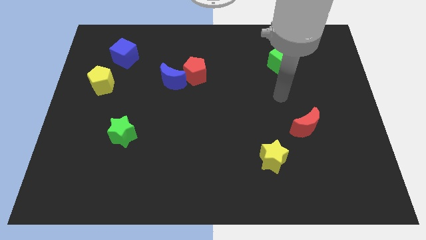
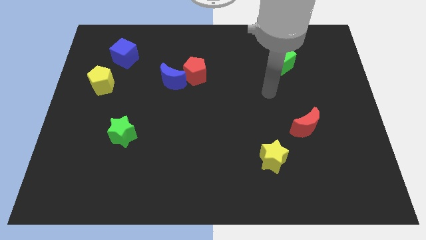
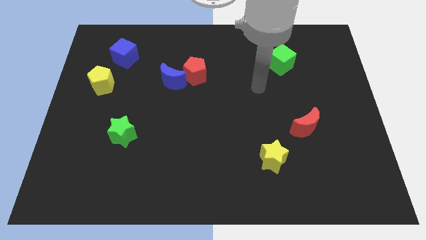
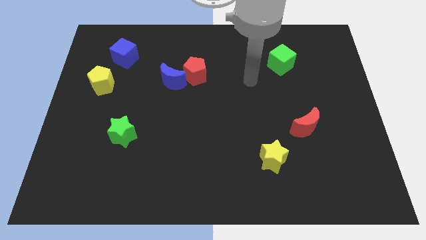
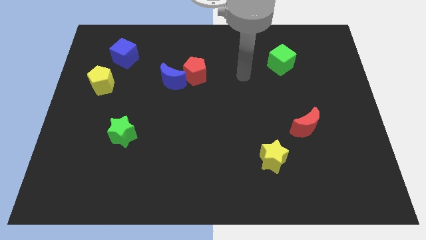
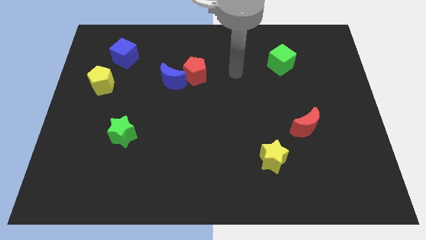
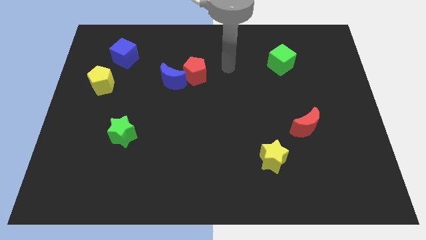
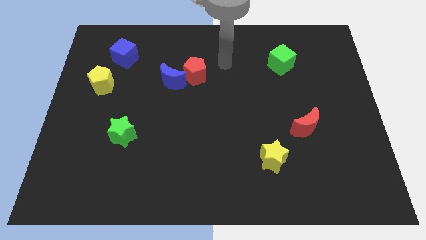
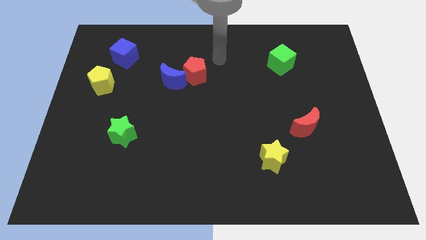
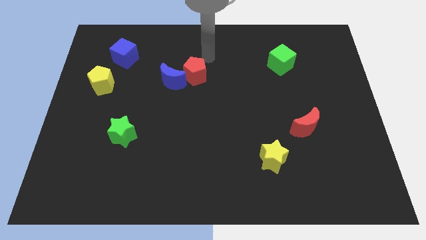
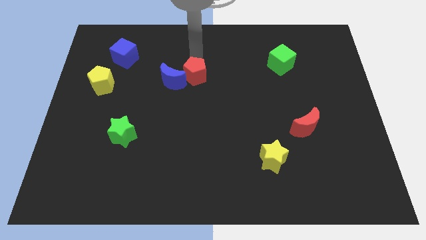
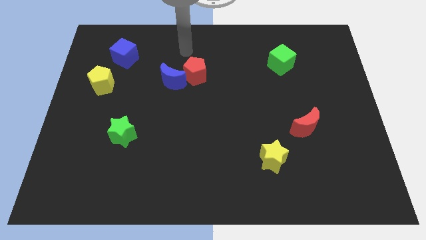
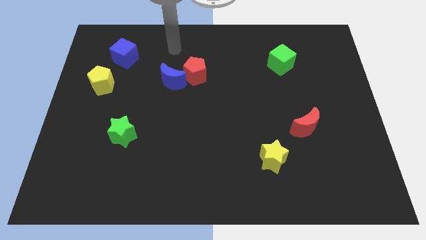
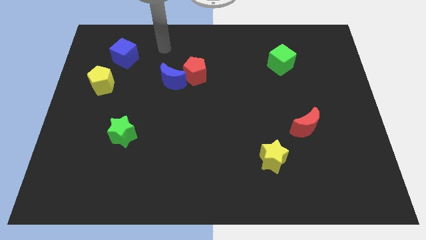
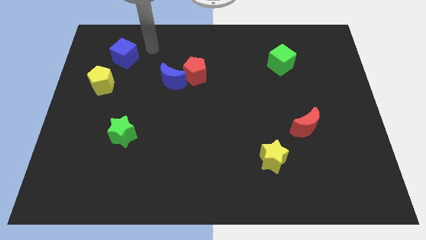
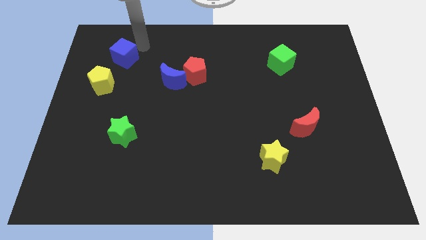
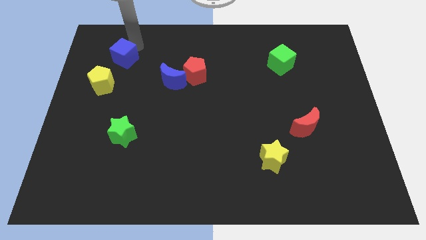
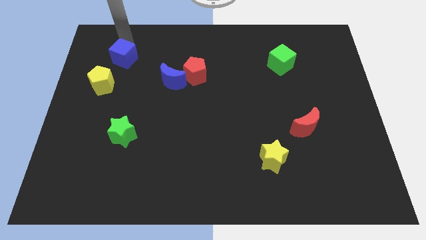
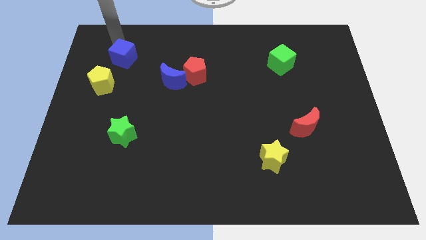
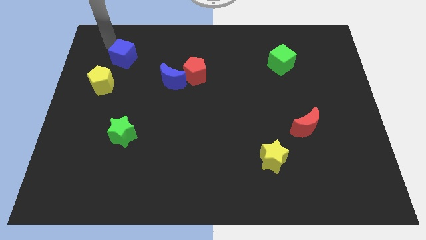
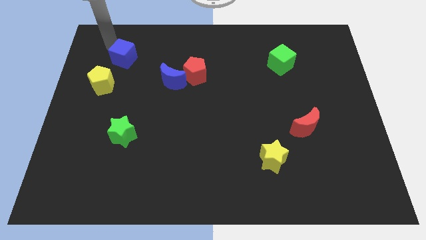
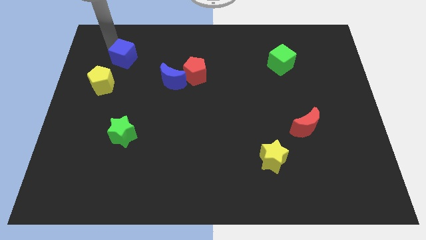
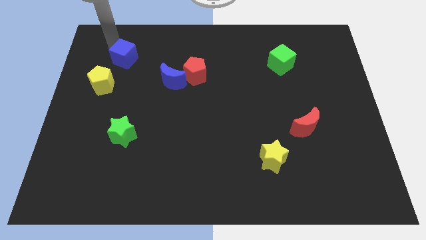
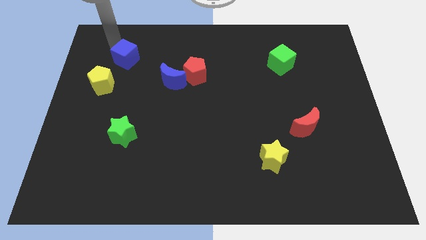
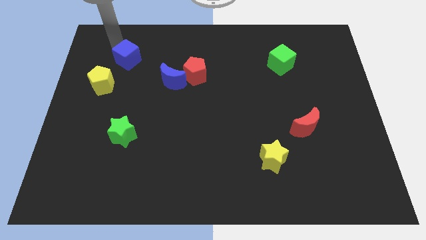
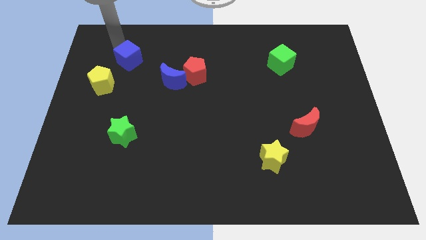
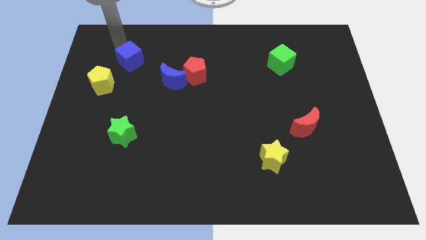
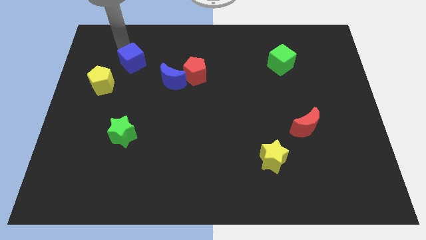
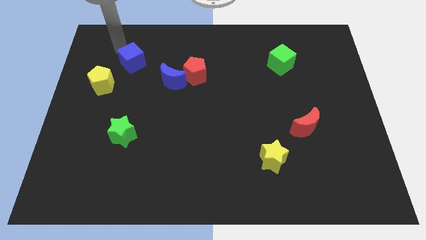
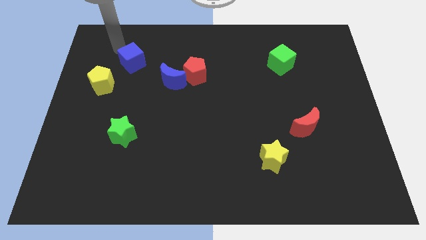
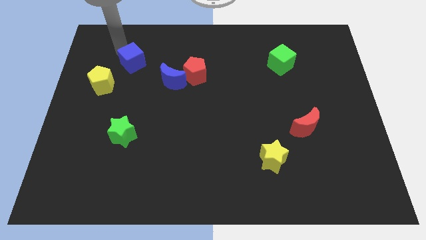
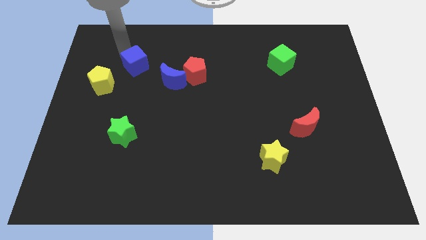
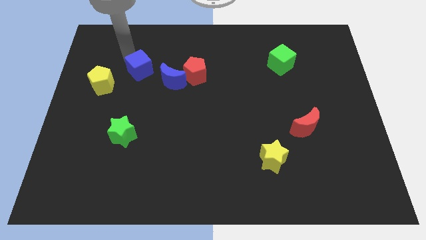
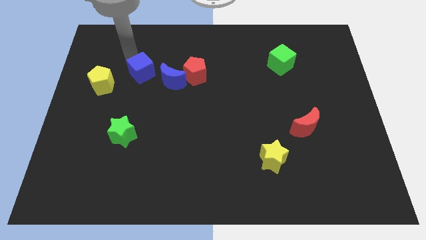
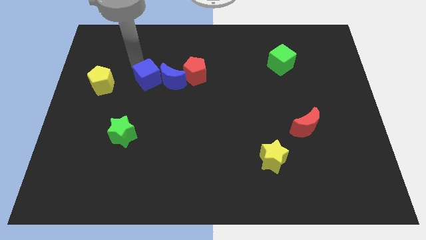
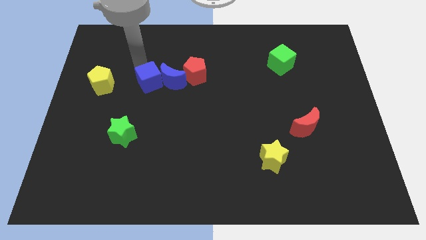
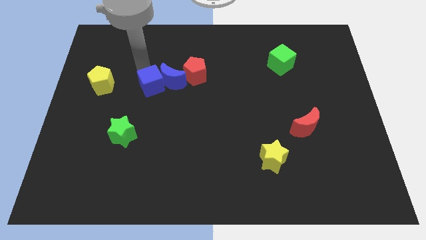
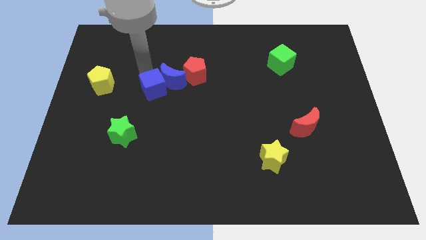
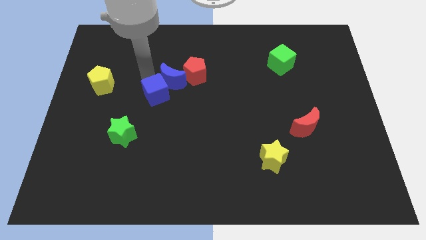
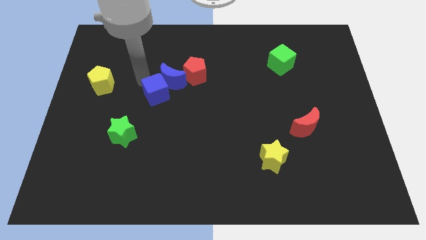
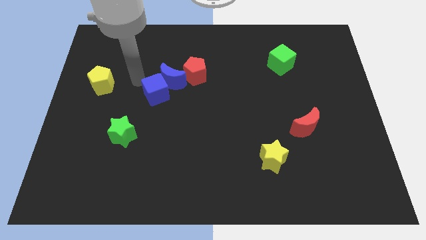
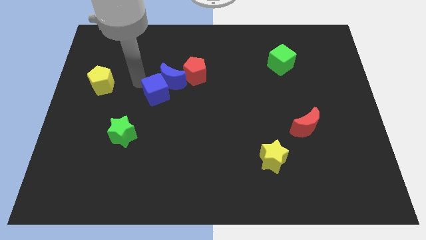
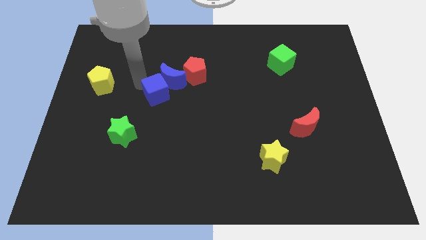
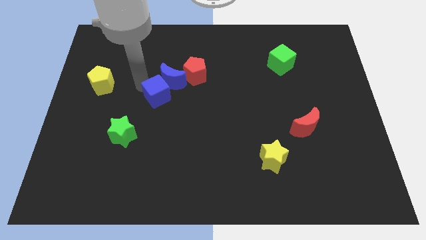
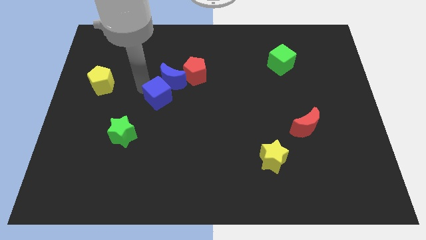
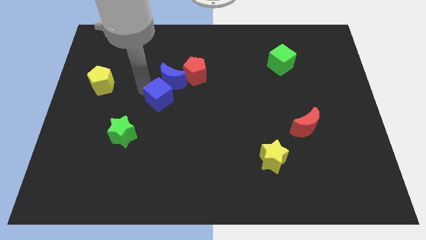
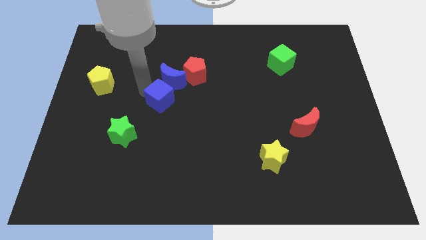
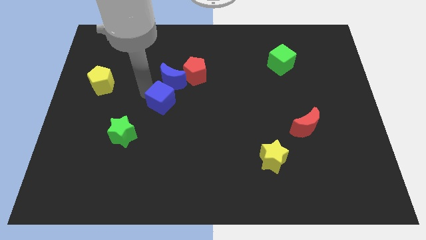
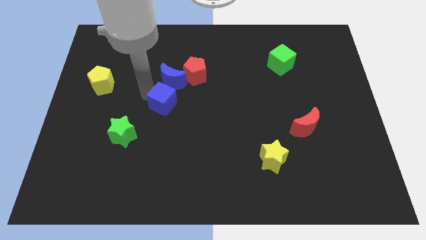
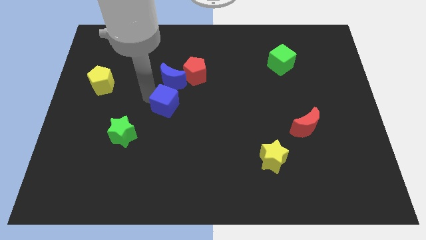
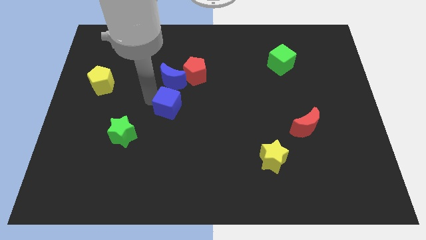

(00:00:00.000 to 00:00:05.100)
slide the blue cube downwards and to the right

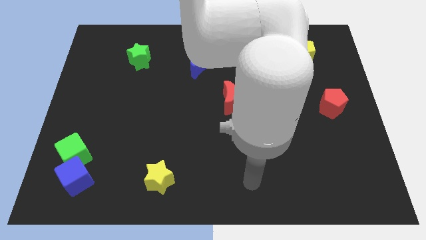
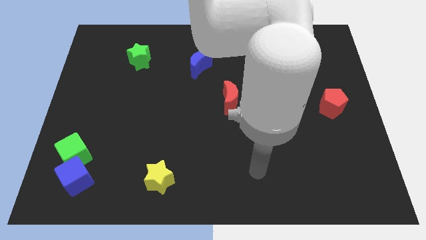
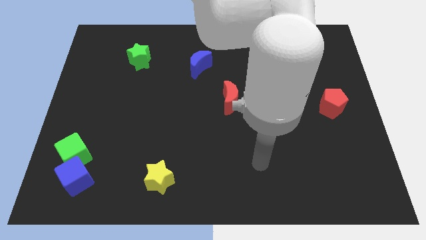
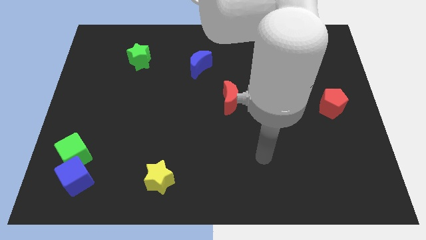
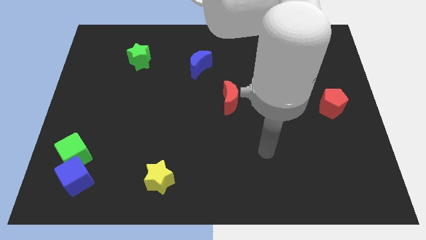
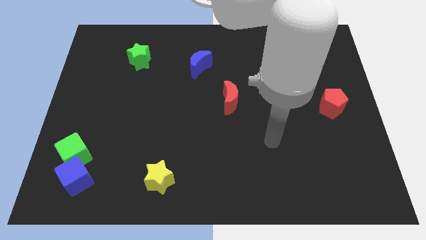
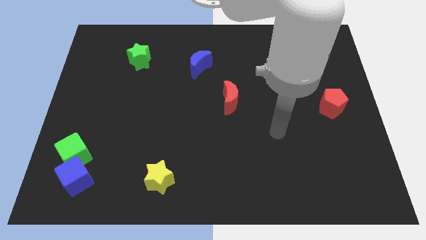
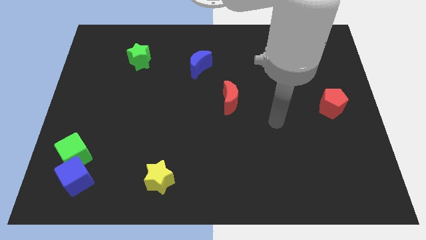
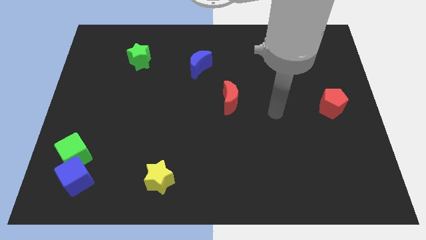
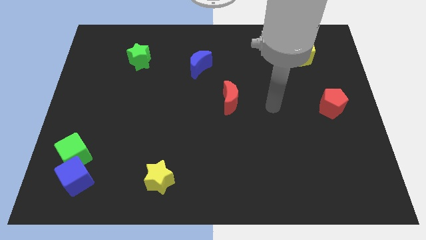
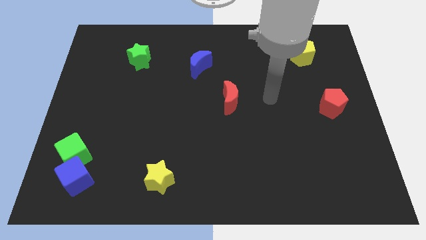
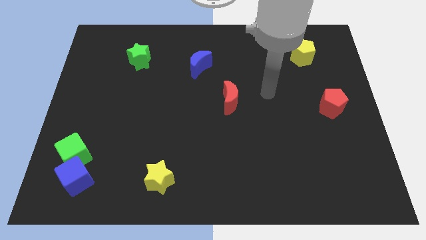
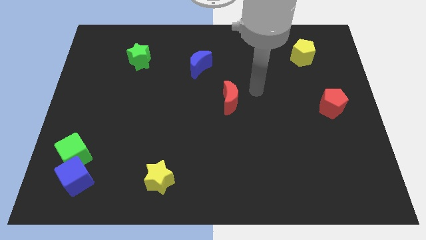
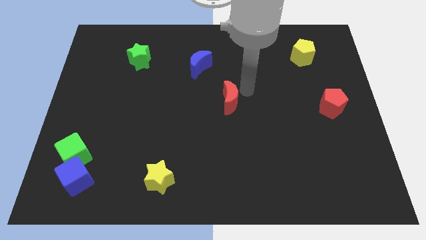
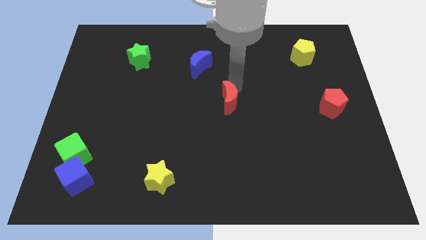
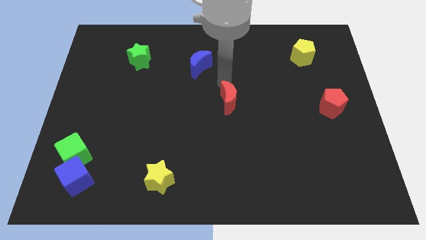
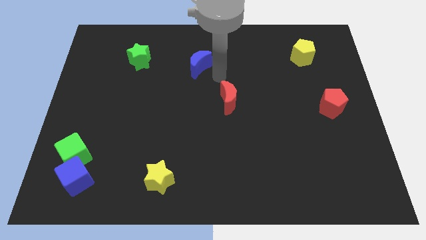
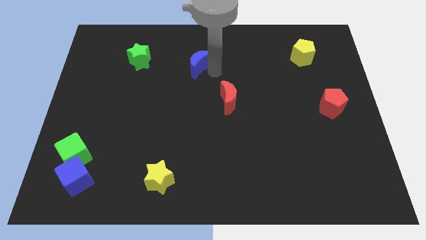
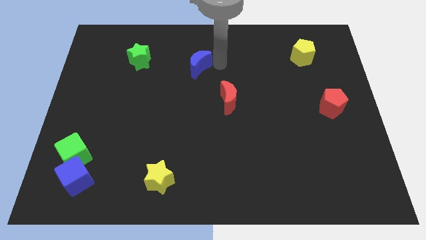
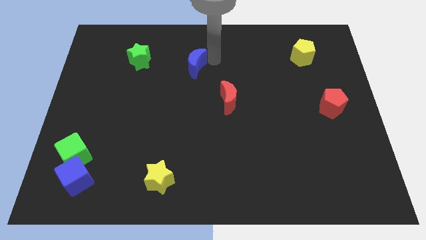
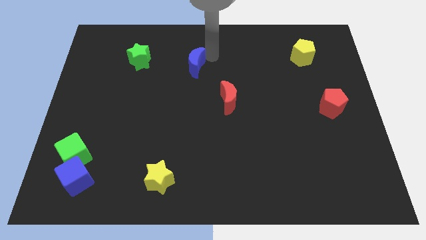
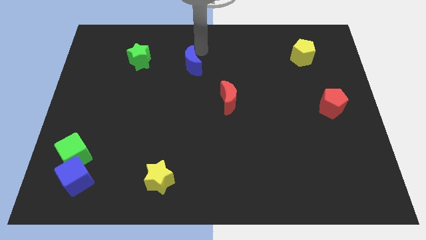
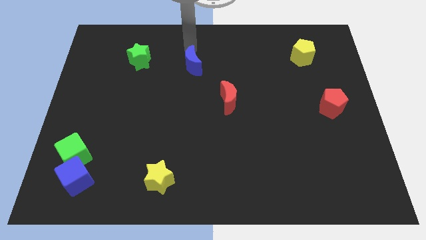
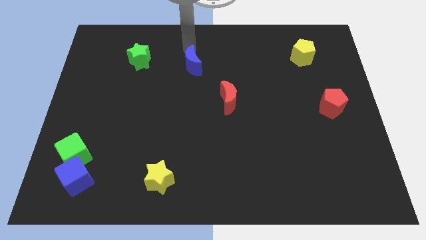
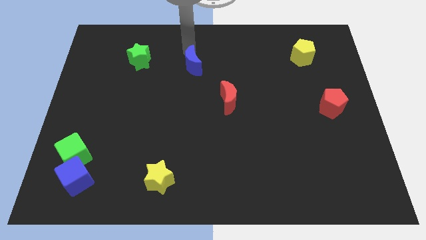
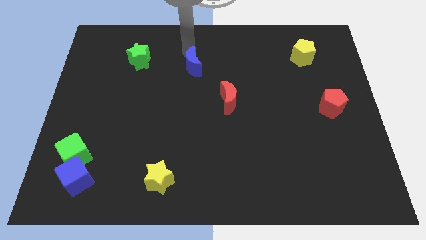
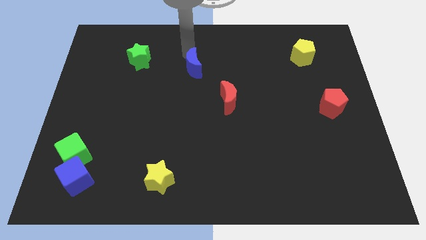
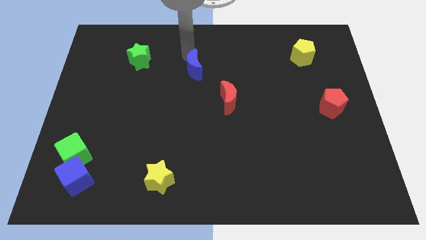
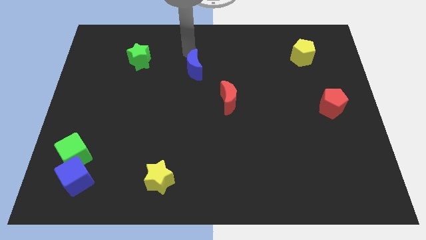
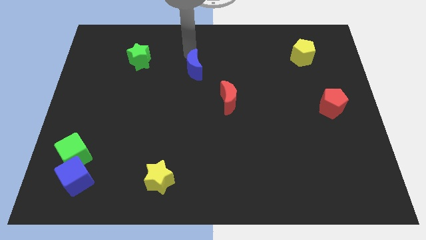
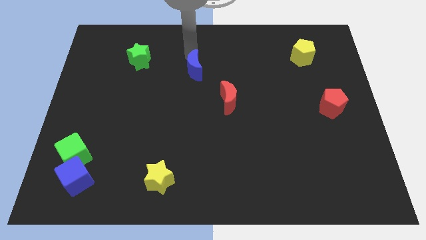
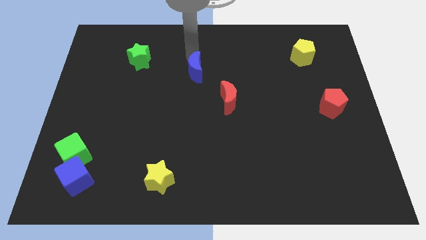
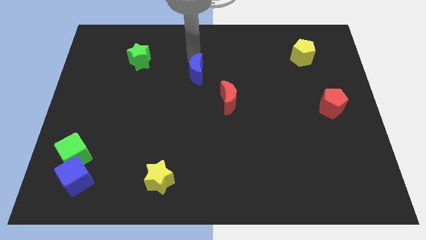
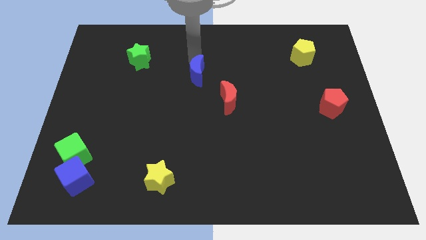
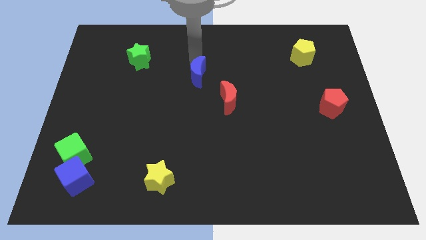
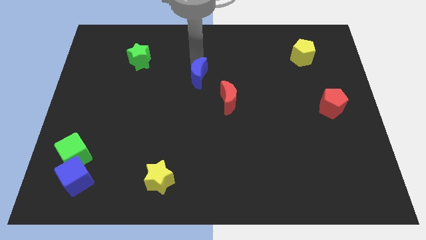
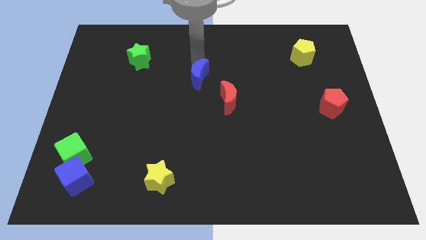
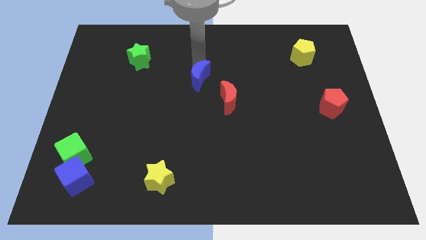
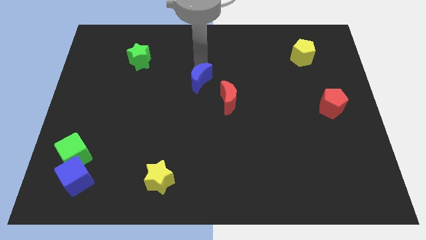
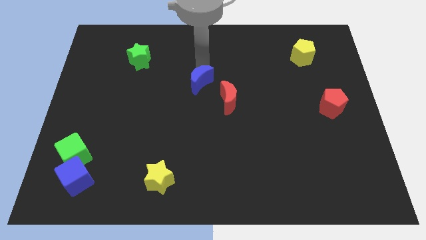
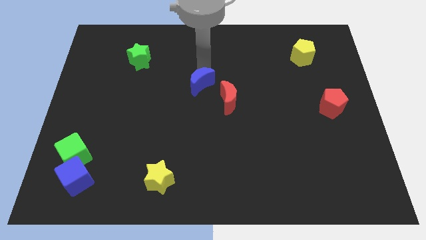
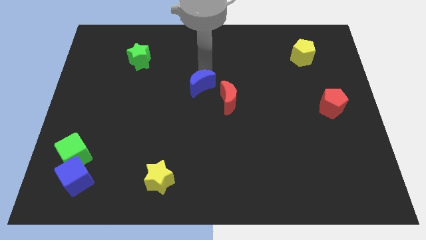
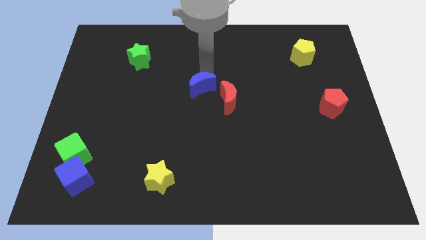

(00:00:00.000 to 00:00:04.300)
push the blue moon down a little
